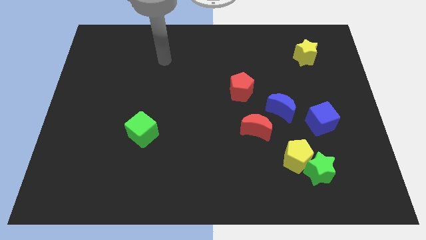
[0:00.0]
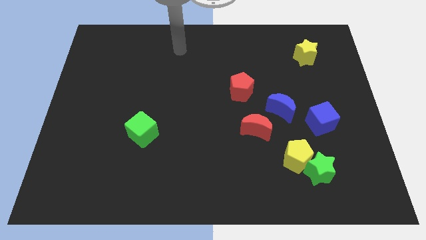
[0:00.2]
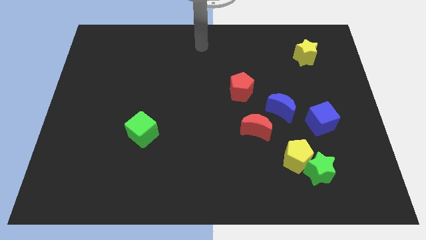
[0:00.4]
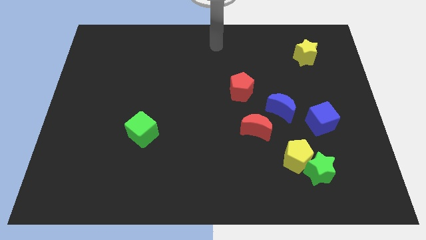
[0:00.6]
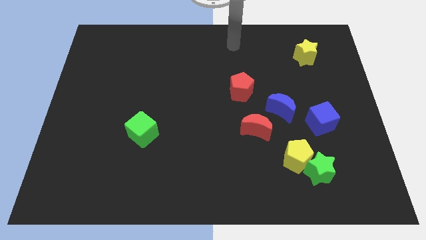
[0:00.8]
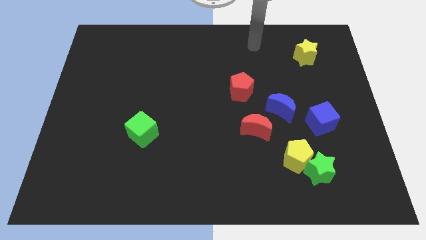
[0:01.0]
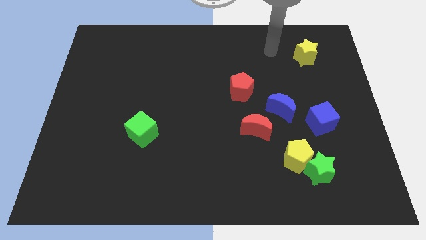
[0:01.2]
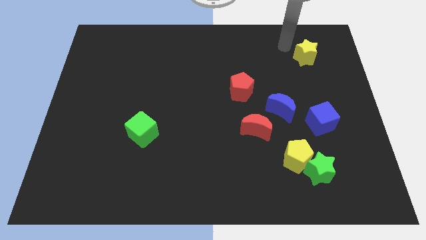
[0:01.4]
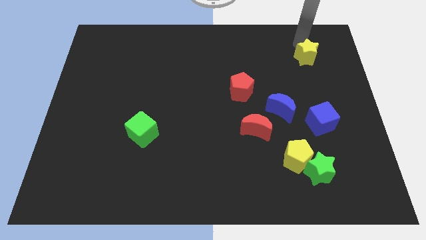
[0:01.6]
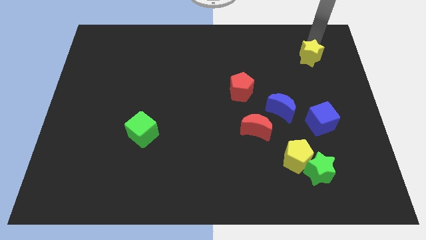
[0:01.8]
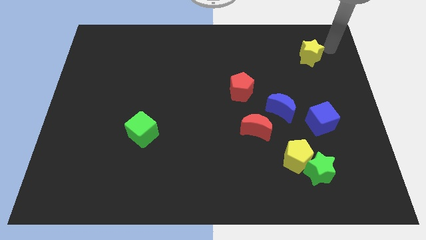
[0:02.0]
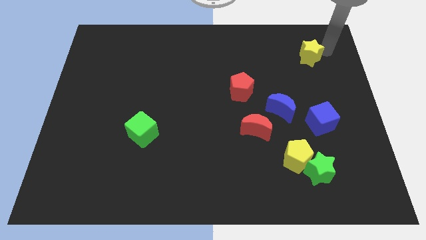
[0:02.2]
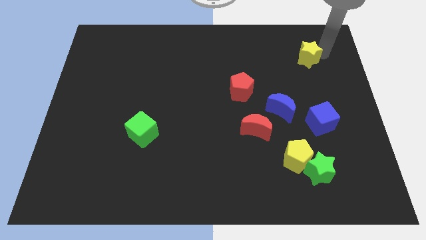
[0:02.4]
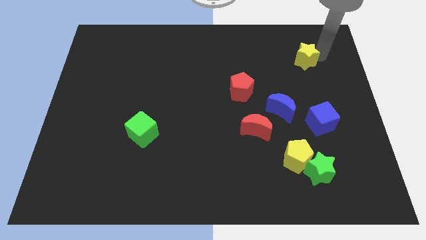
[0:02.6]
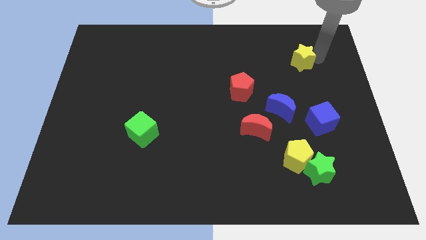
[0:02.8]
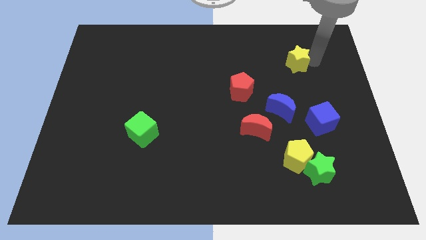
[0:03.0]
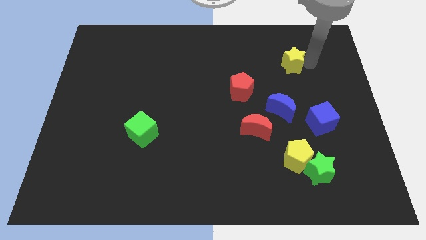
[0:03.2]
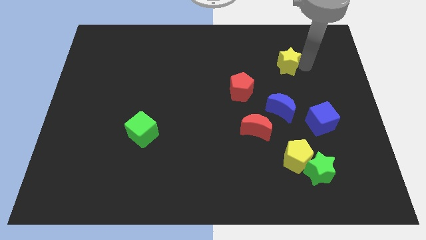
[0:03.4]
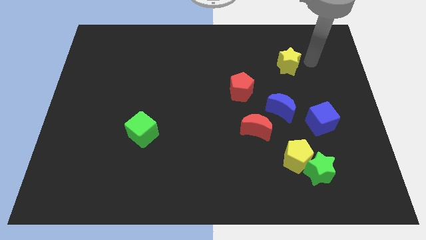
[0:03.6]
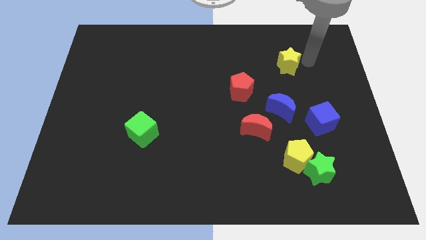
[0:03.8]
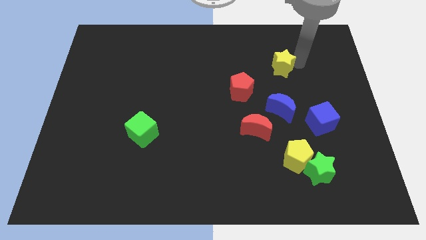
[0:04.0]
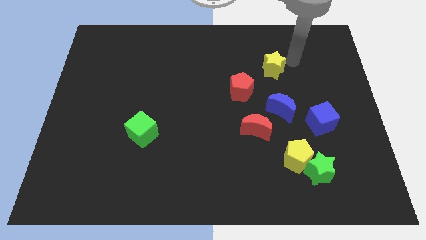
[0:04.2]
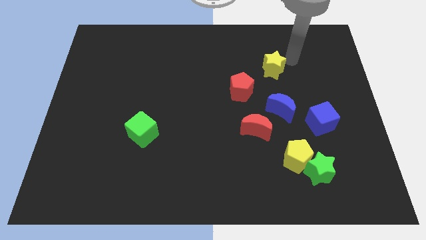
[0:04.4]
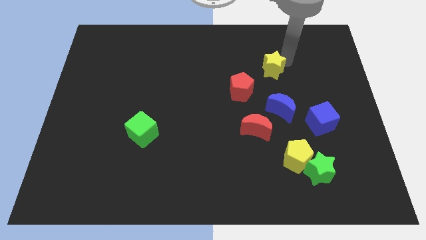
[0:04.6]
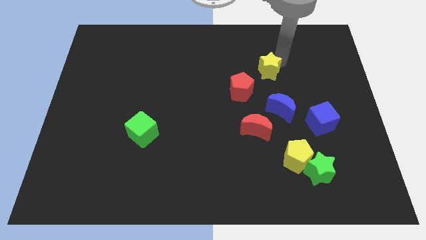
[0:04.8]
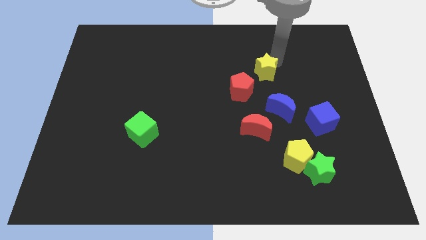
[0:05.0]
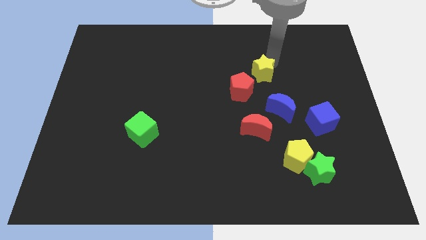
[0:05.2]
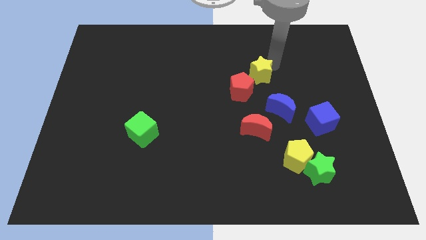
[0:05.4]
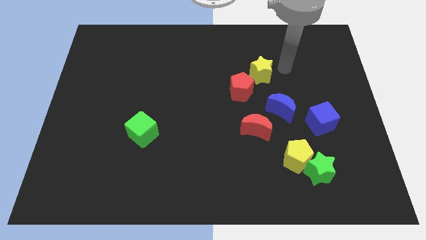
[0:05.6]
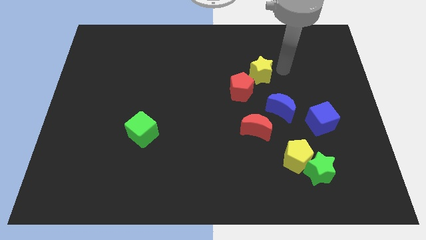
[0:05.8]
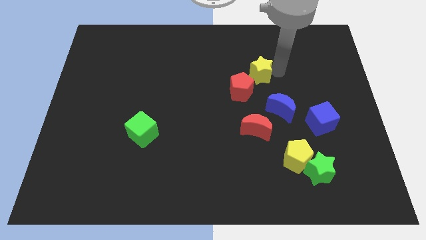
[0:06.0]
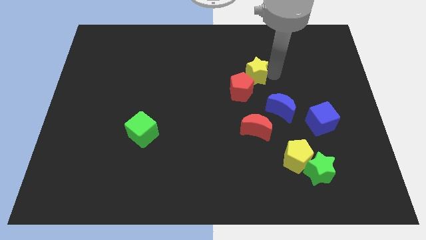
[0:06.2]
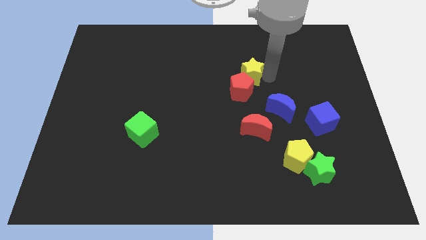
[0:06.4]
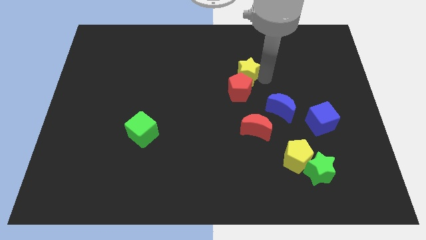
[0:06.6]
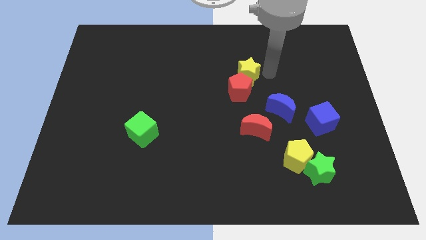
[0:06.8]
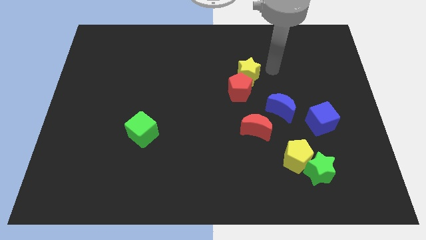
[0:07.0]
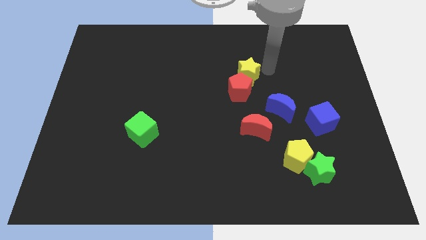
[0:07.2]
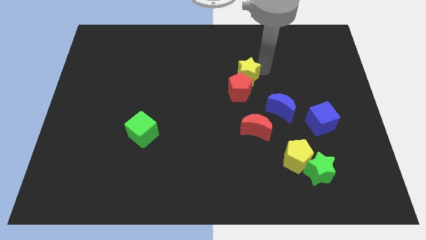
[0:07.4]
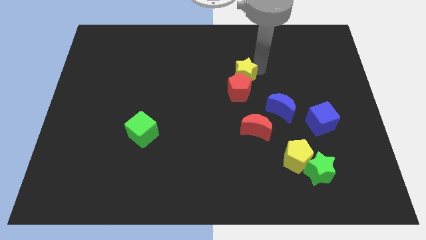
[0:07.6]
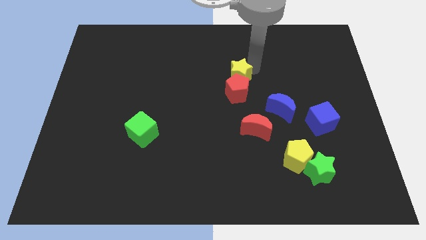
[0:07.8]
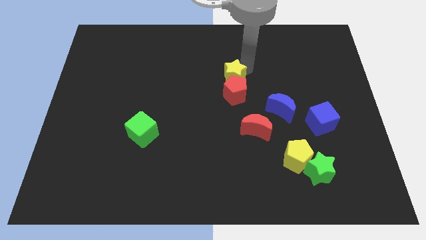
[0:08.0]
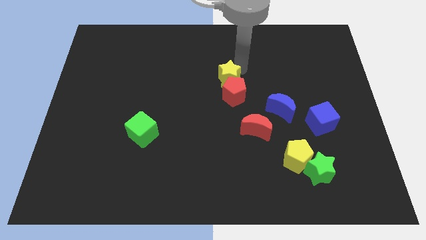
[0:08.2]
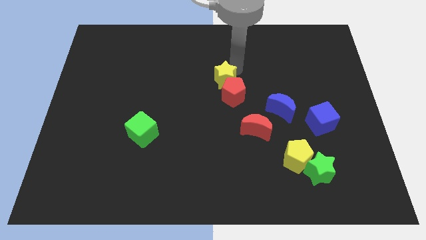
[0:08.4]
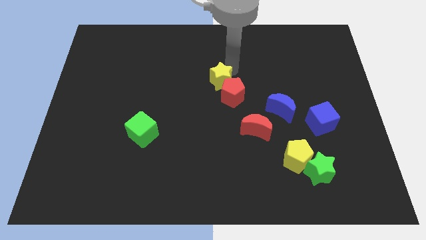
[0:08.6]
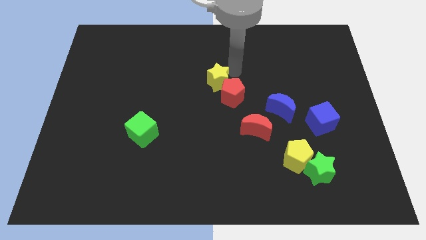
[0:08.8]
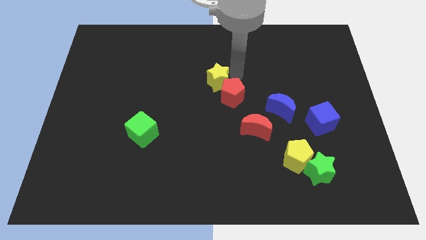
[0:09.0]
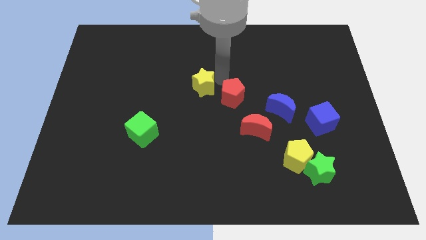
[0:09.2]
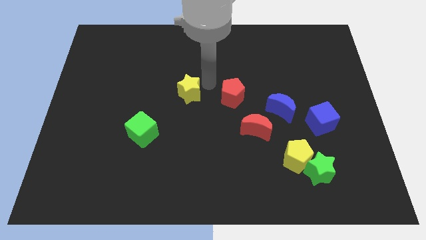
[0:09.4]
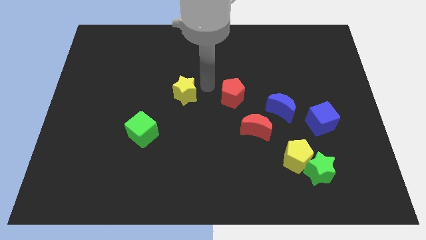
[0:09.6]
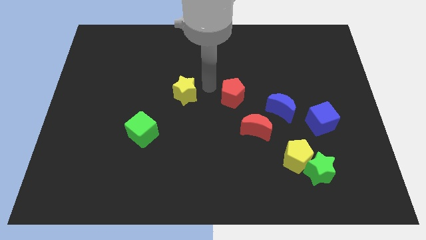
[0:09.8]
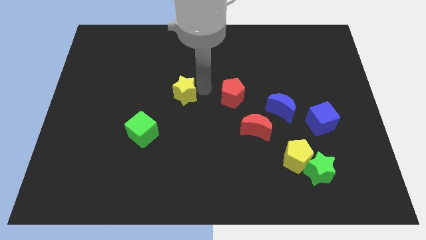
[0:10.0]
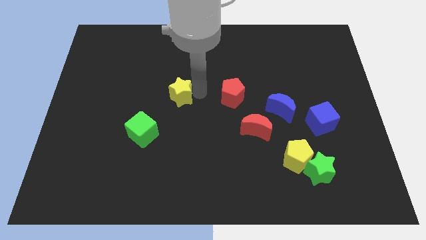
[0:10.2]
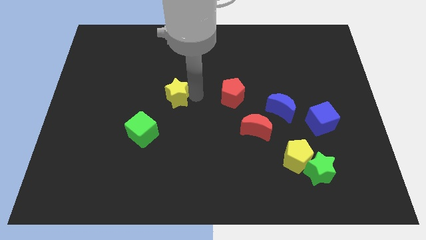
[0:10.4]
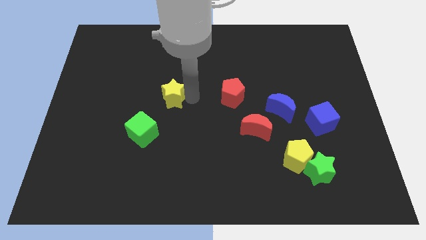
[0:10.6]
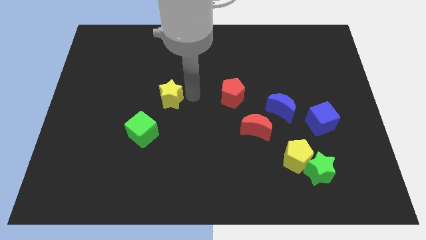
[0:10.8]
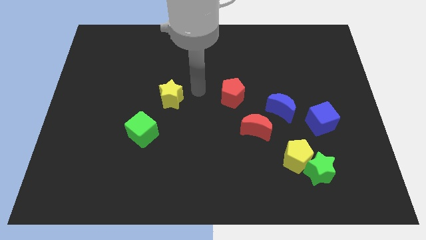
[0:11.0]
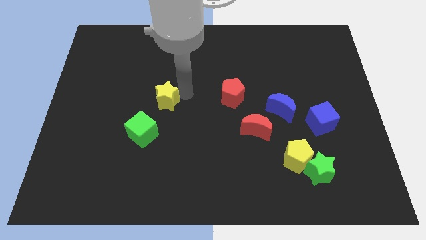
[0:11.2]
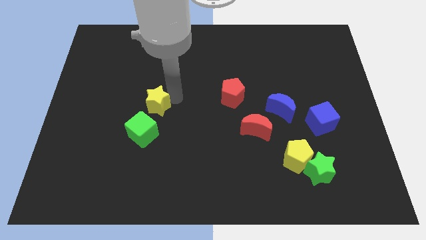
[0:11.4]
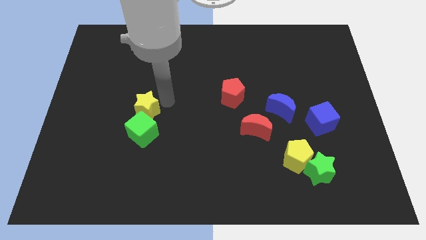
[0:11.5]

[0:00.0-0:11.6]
put the yellow star diagonally up and to the left of the green cube

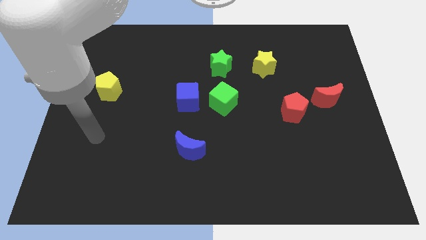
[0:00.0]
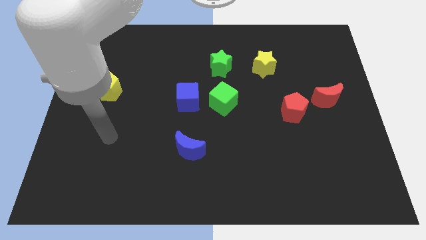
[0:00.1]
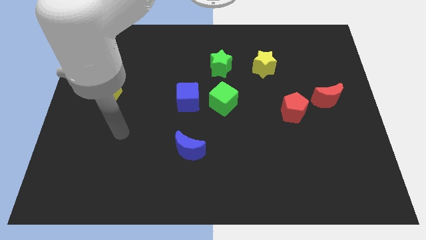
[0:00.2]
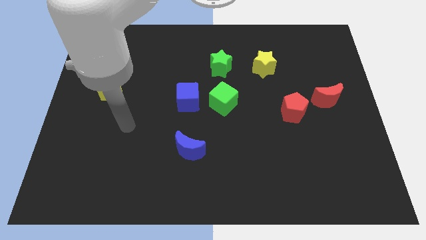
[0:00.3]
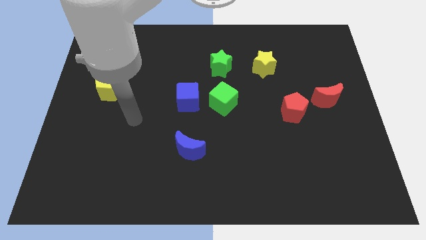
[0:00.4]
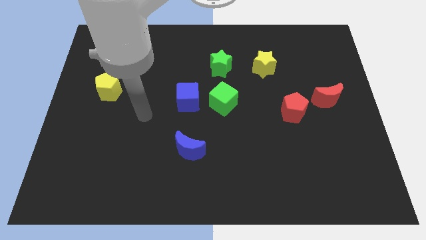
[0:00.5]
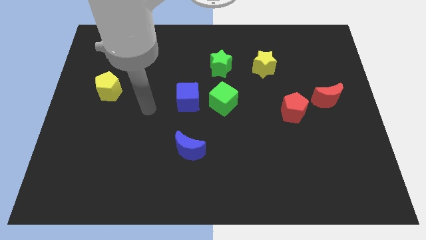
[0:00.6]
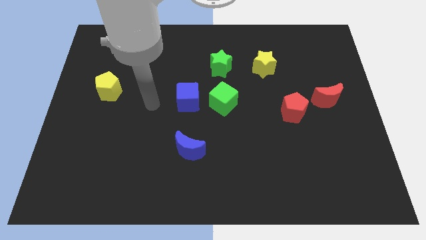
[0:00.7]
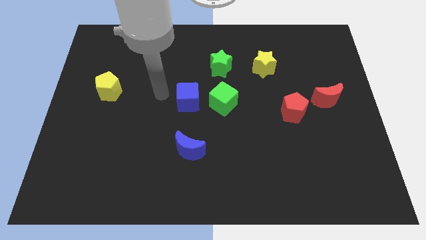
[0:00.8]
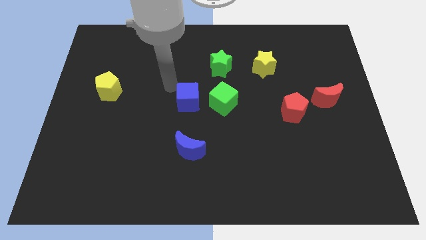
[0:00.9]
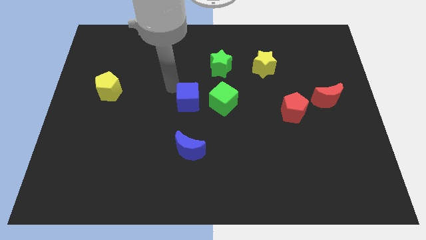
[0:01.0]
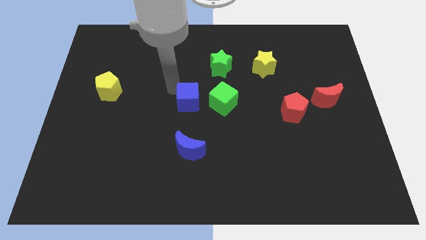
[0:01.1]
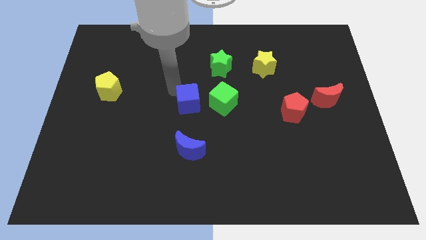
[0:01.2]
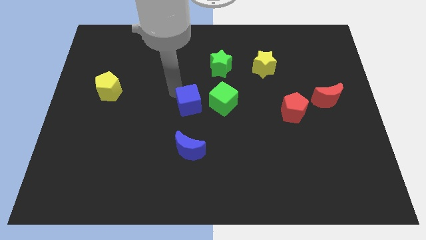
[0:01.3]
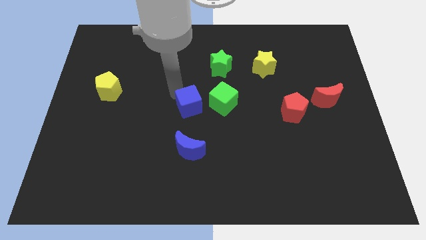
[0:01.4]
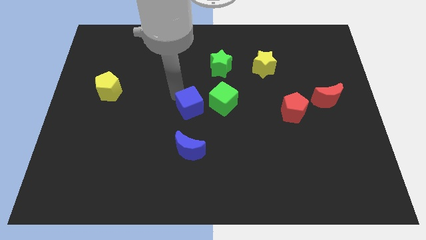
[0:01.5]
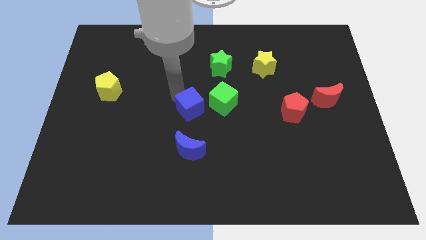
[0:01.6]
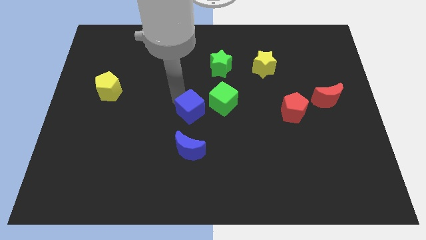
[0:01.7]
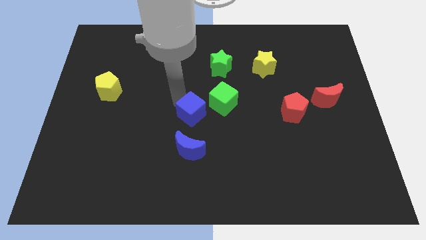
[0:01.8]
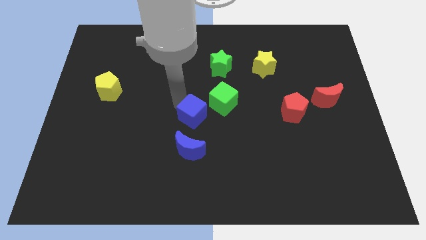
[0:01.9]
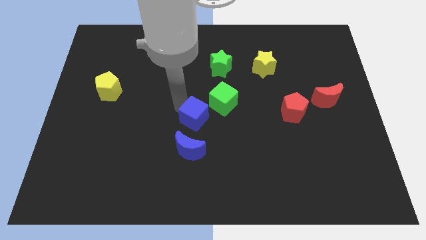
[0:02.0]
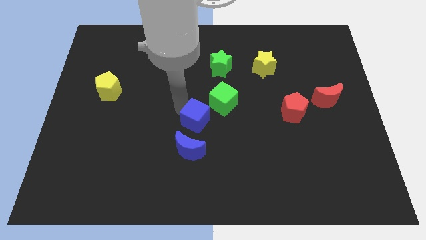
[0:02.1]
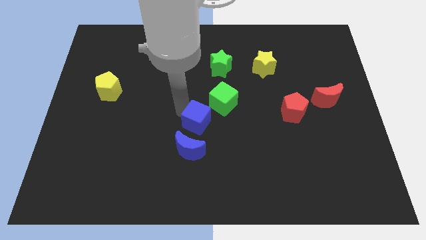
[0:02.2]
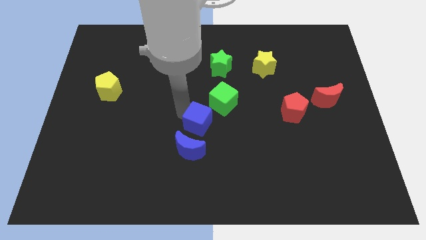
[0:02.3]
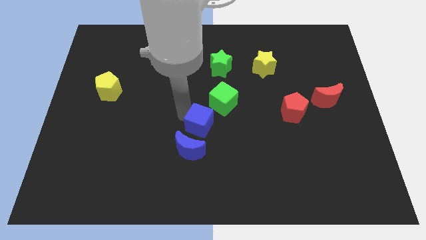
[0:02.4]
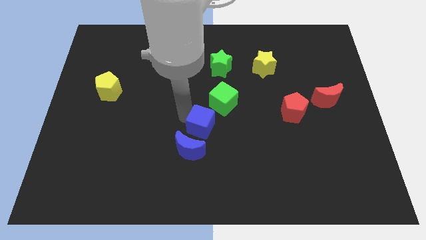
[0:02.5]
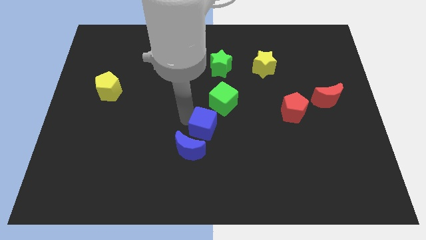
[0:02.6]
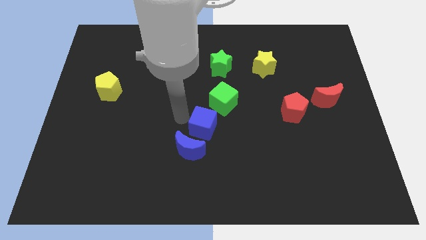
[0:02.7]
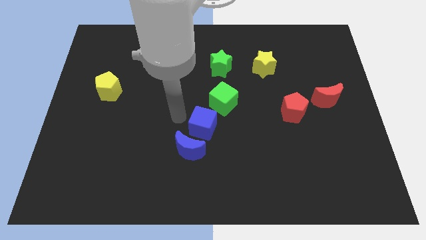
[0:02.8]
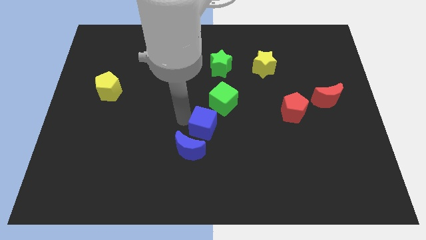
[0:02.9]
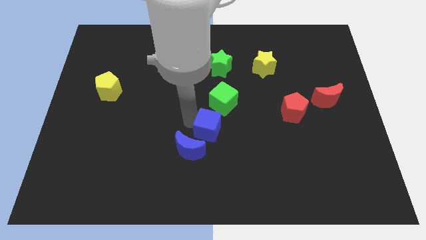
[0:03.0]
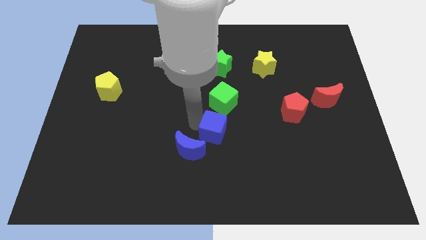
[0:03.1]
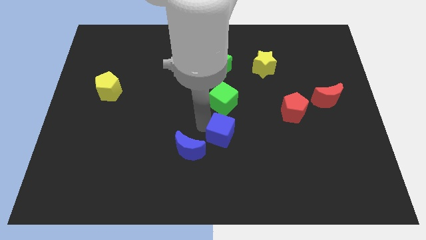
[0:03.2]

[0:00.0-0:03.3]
move the blue cube to the right side of the blue moon
